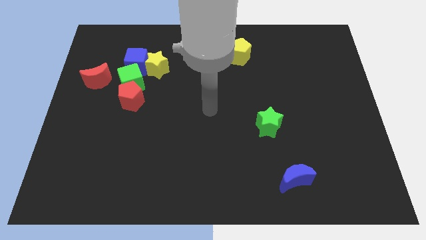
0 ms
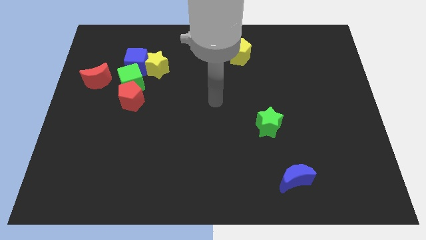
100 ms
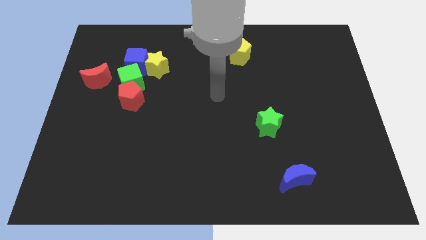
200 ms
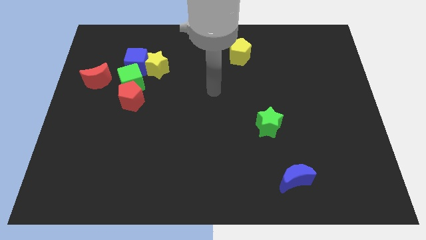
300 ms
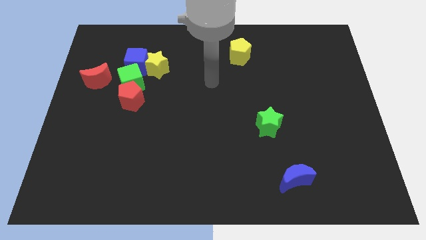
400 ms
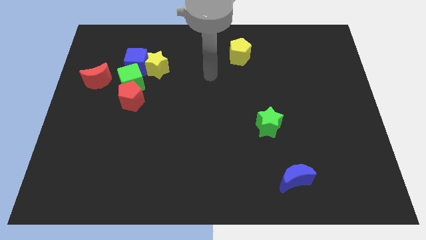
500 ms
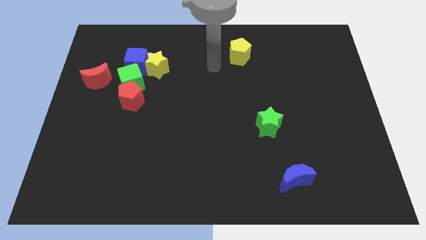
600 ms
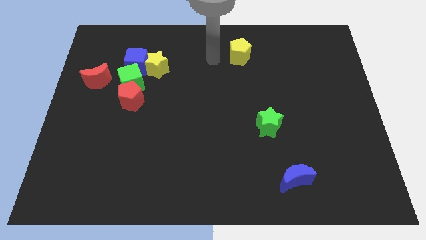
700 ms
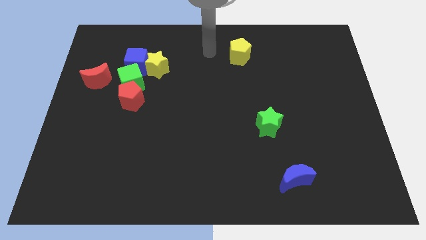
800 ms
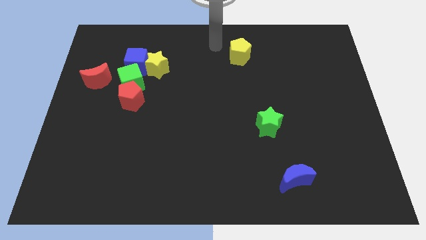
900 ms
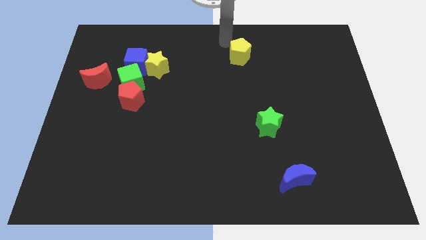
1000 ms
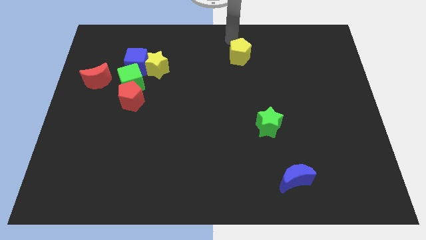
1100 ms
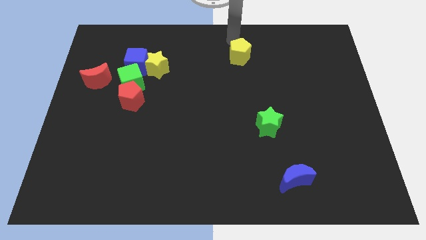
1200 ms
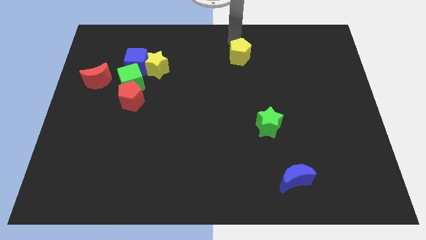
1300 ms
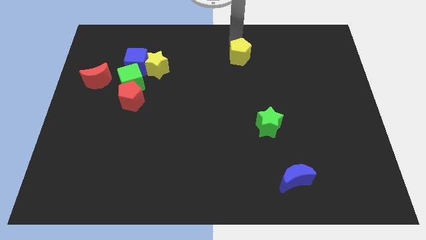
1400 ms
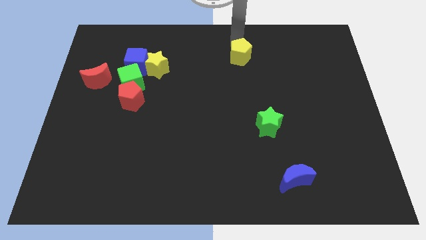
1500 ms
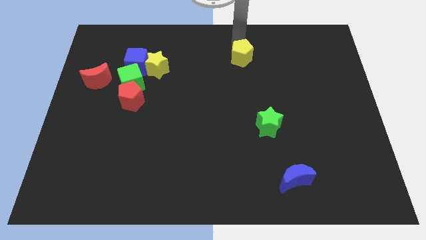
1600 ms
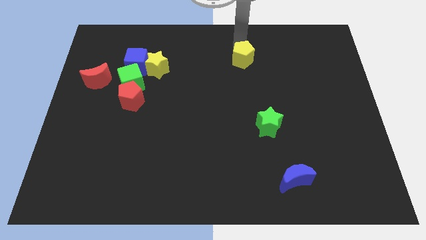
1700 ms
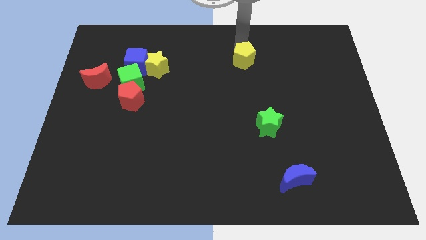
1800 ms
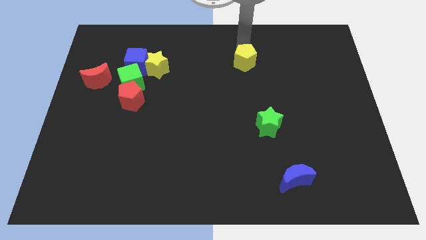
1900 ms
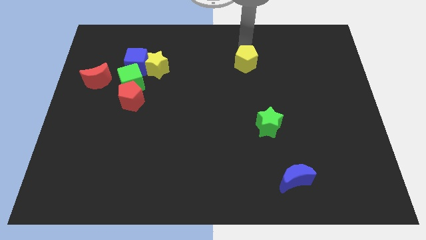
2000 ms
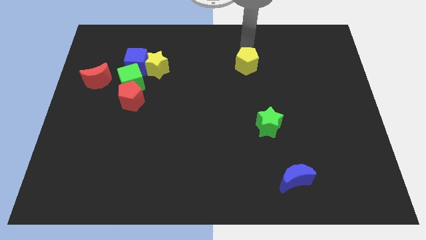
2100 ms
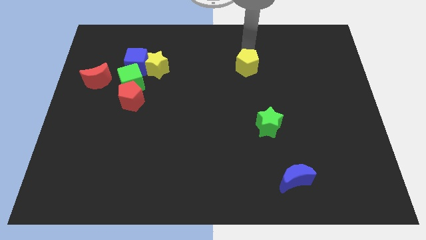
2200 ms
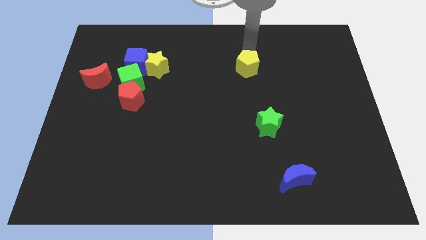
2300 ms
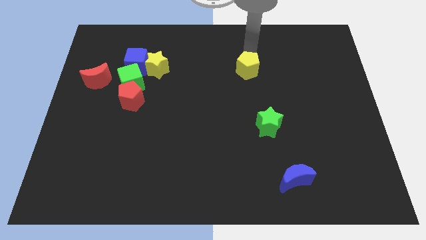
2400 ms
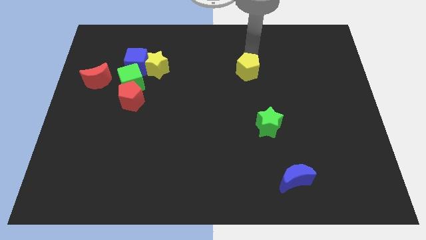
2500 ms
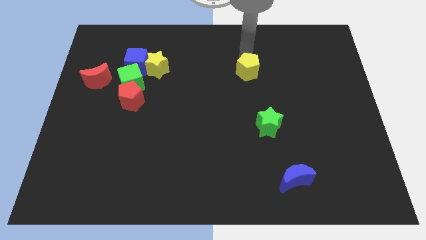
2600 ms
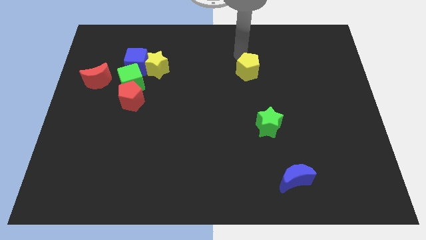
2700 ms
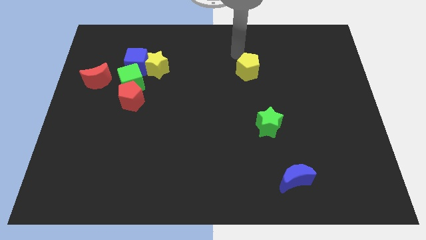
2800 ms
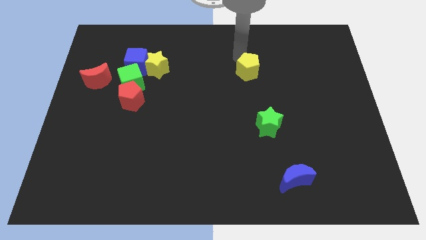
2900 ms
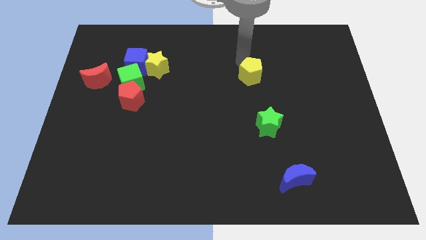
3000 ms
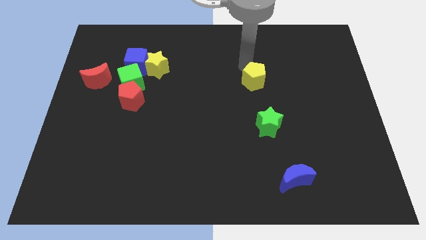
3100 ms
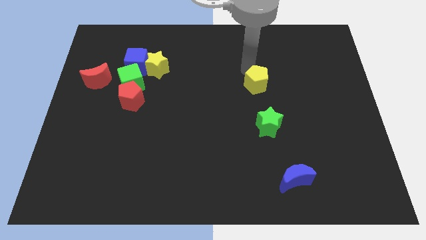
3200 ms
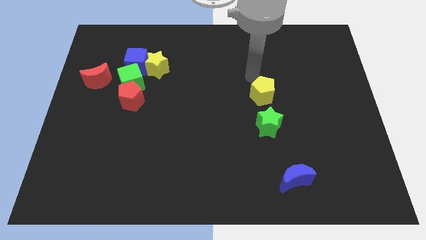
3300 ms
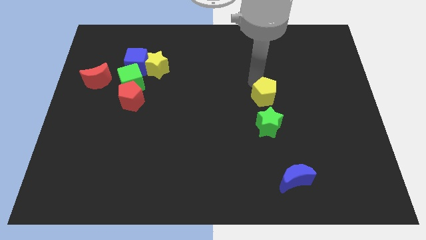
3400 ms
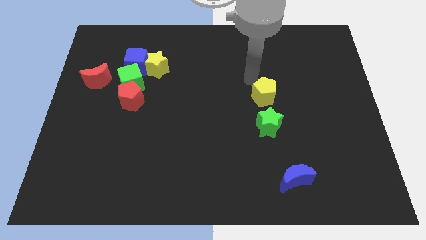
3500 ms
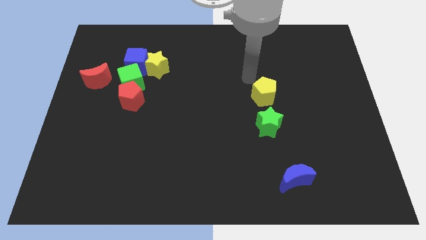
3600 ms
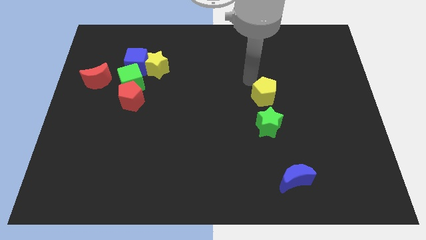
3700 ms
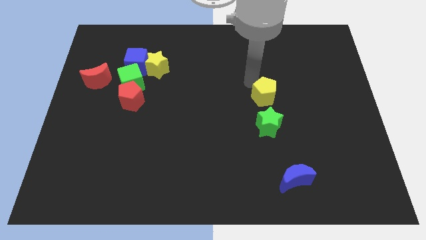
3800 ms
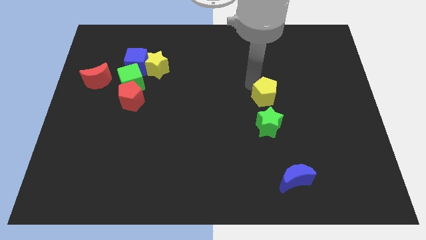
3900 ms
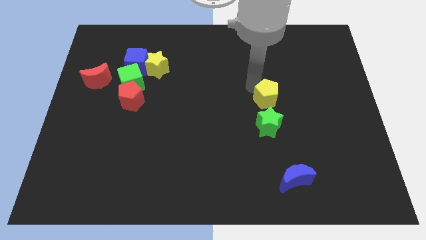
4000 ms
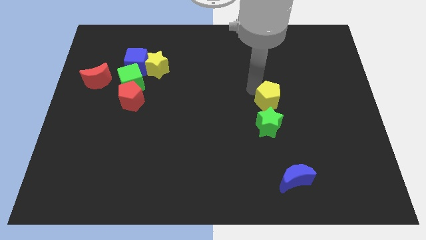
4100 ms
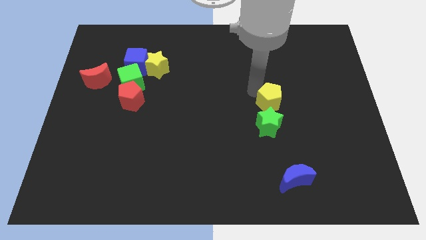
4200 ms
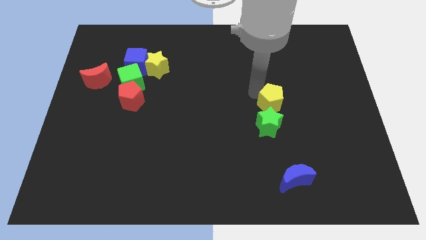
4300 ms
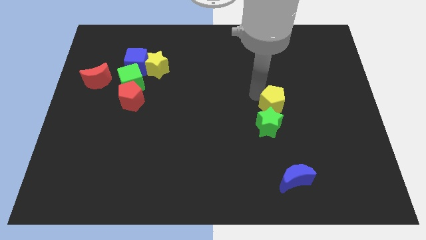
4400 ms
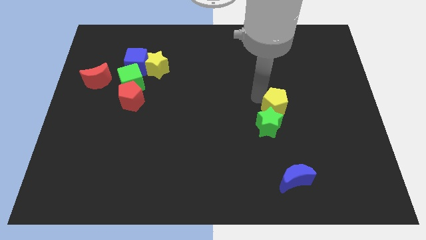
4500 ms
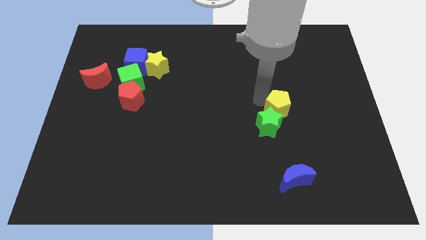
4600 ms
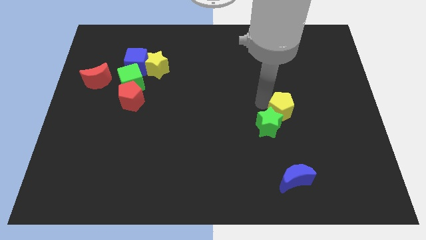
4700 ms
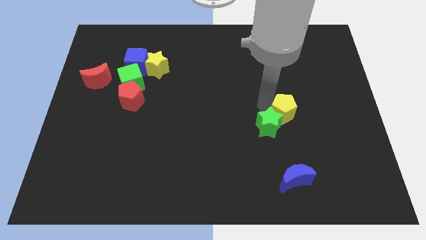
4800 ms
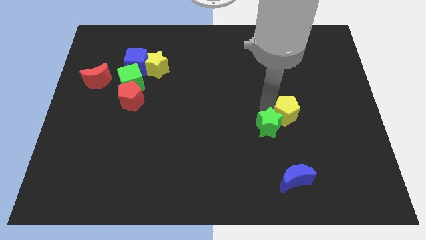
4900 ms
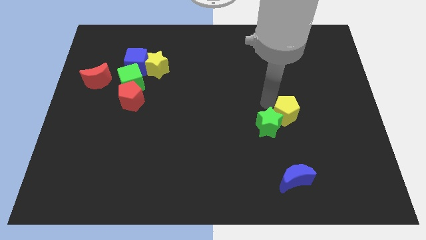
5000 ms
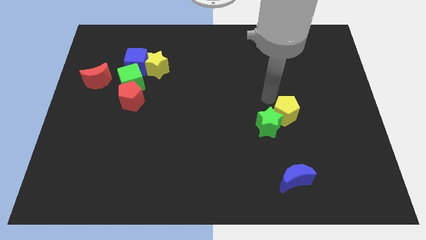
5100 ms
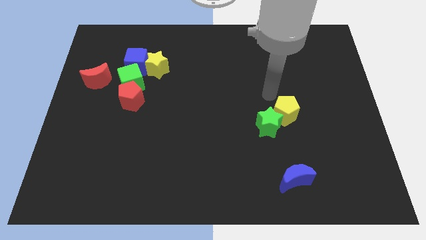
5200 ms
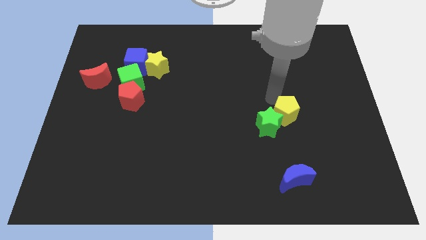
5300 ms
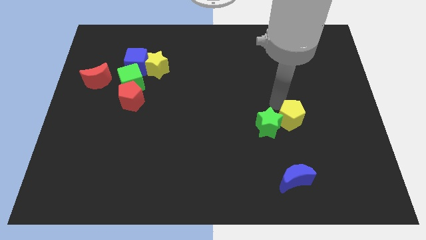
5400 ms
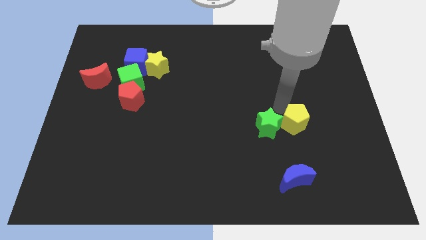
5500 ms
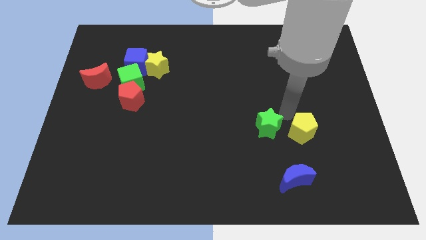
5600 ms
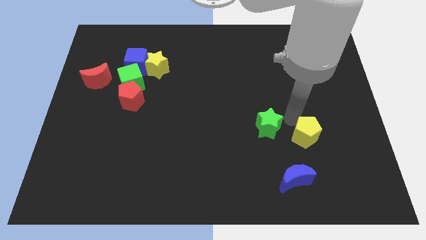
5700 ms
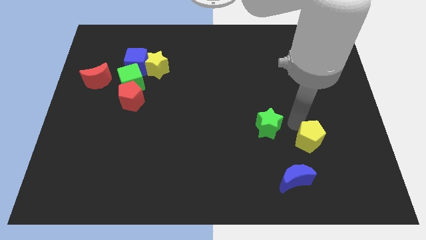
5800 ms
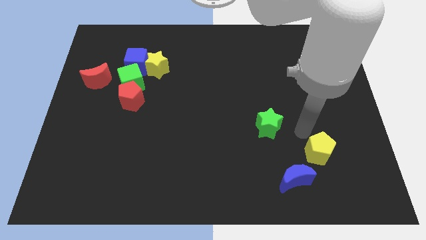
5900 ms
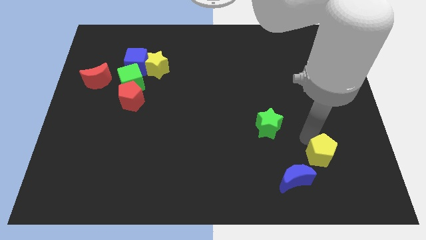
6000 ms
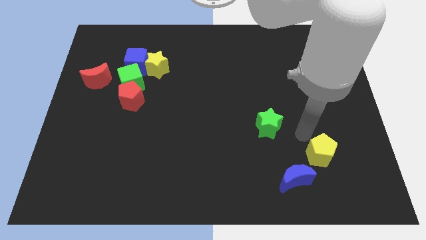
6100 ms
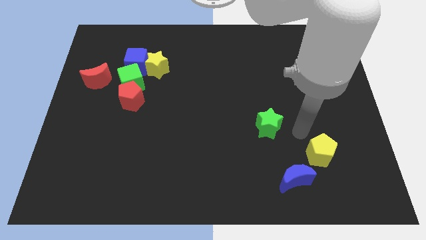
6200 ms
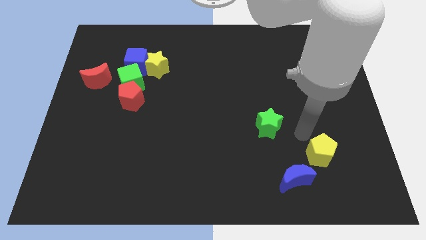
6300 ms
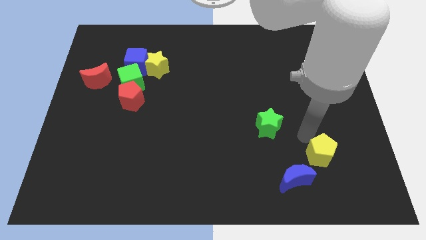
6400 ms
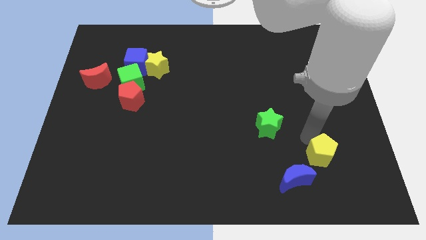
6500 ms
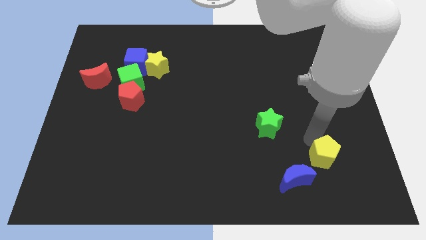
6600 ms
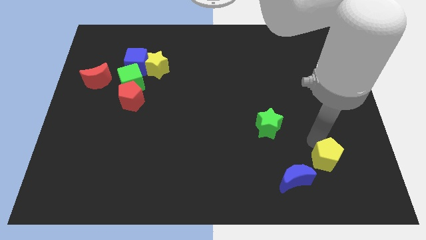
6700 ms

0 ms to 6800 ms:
move the yellow pentagon to the right of the blue moon

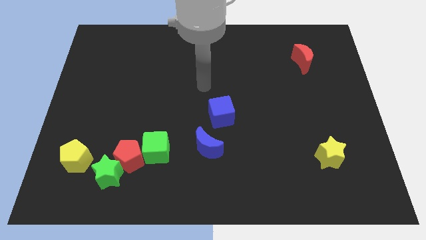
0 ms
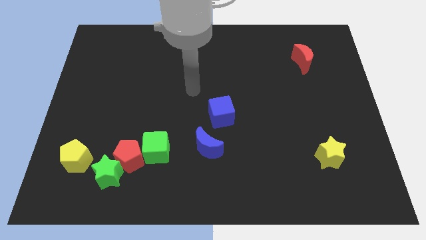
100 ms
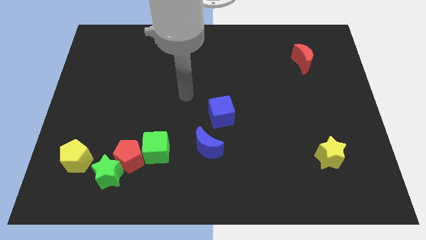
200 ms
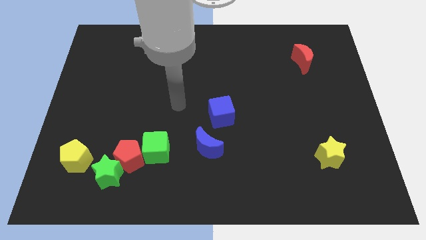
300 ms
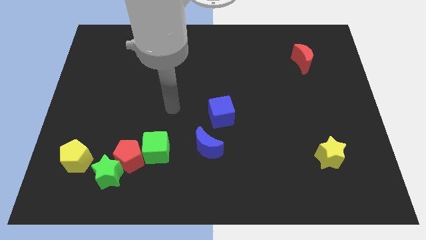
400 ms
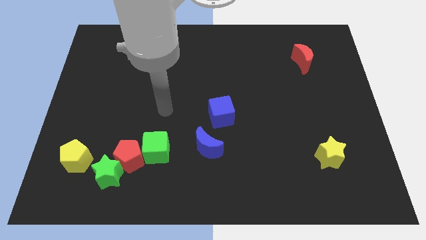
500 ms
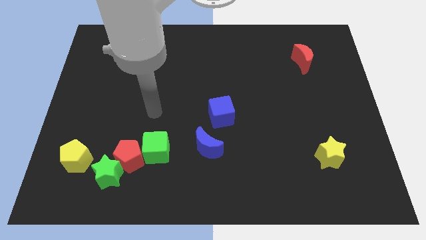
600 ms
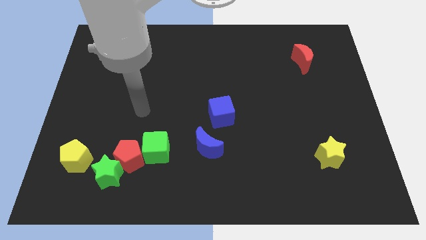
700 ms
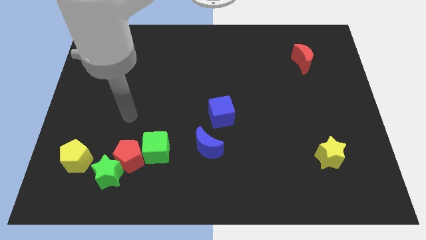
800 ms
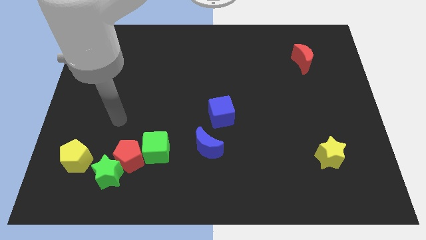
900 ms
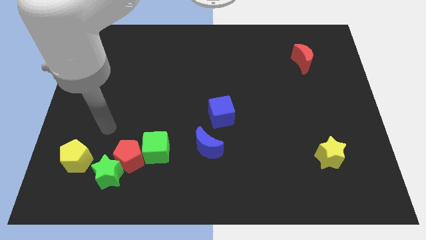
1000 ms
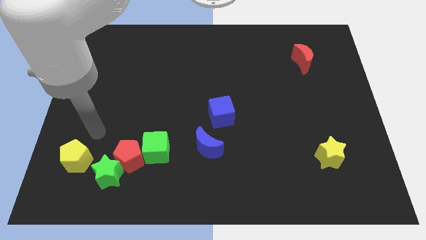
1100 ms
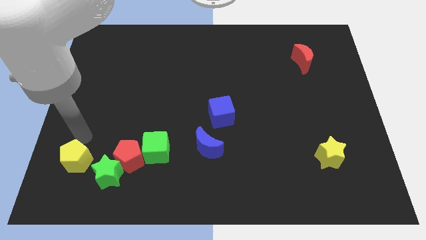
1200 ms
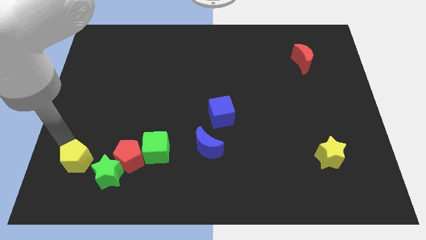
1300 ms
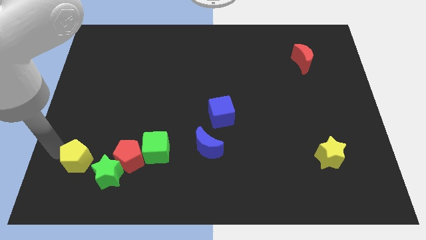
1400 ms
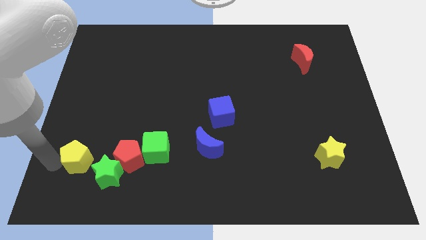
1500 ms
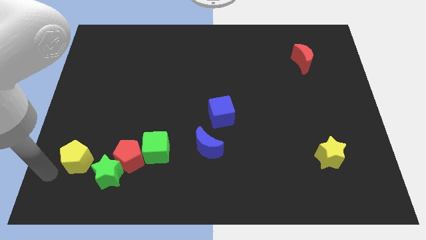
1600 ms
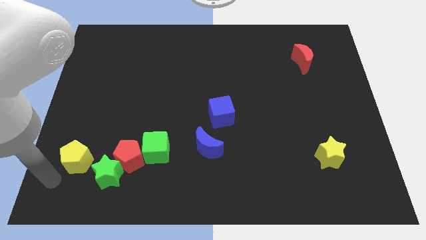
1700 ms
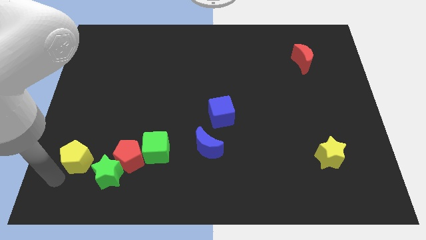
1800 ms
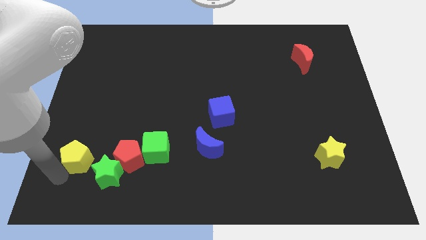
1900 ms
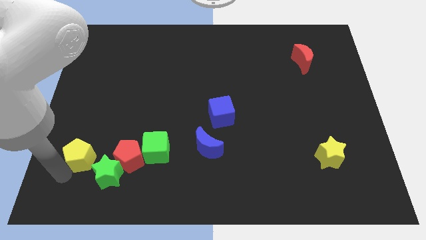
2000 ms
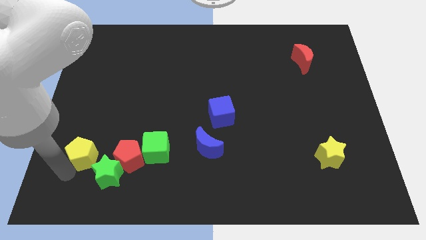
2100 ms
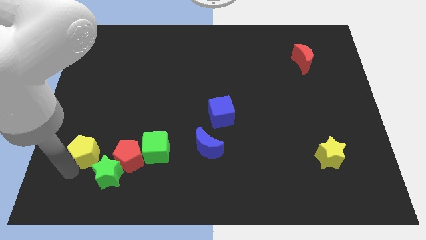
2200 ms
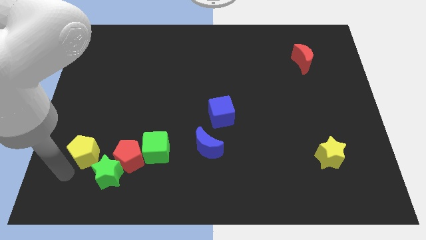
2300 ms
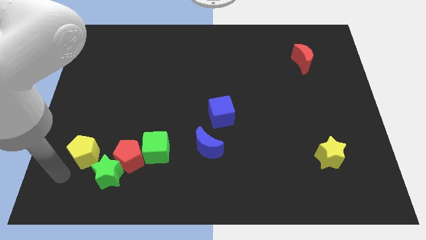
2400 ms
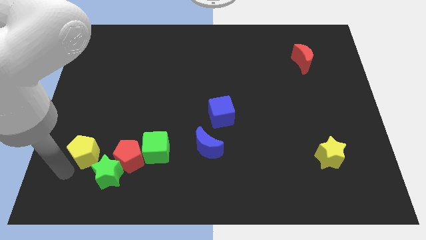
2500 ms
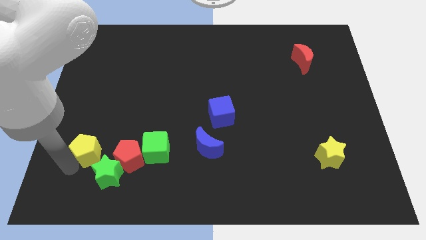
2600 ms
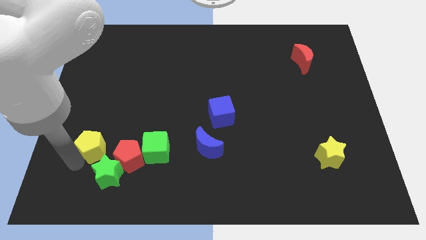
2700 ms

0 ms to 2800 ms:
put the yellow pentagon above the green star
